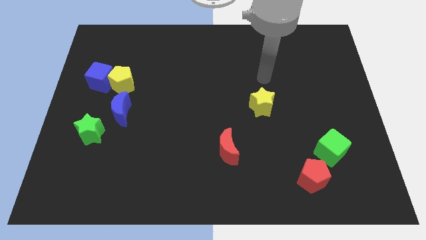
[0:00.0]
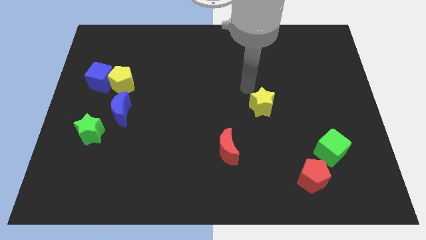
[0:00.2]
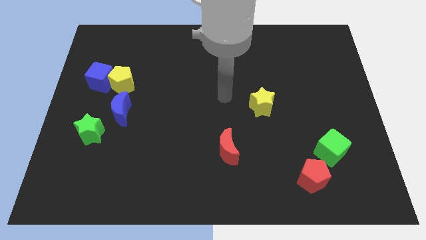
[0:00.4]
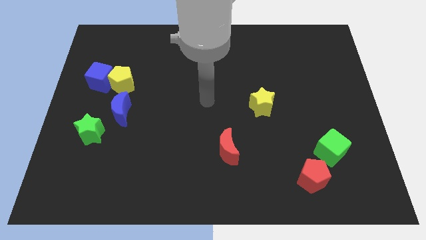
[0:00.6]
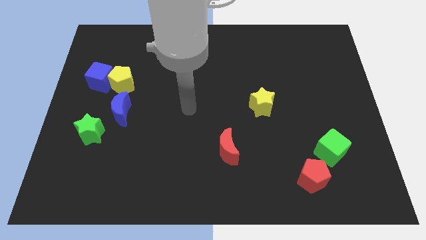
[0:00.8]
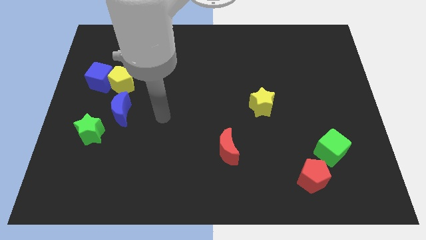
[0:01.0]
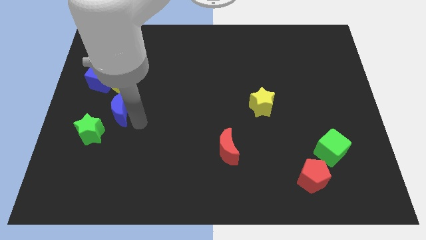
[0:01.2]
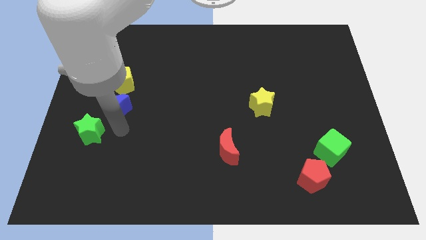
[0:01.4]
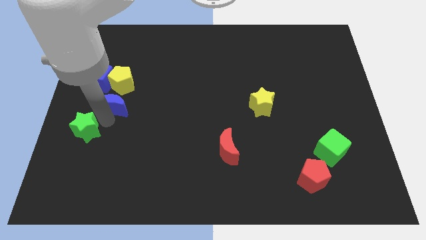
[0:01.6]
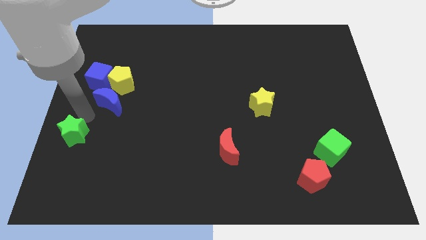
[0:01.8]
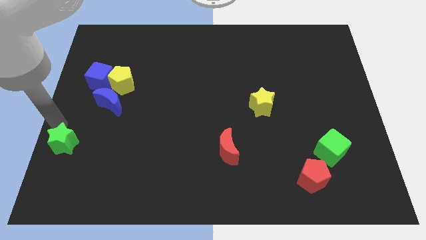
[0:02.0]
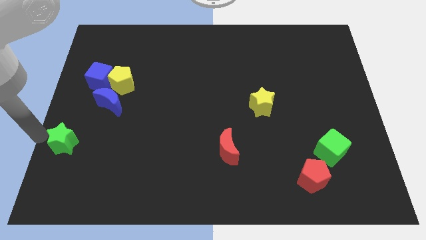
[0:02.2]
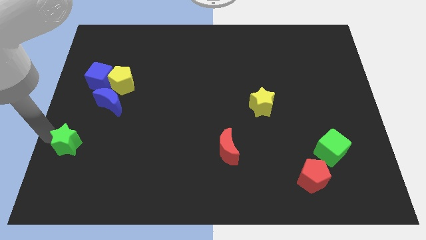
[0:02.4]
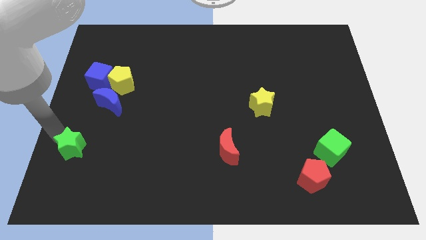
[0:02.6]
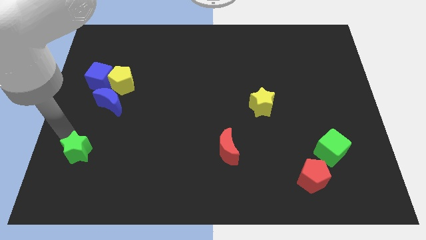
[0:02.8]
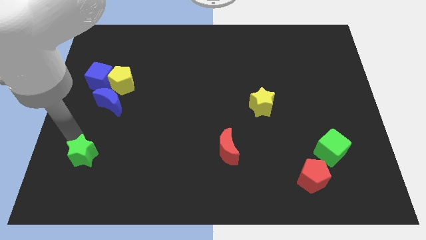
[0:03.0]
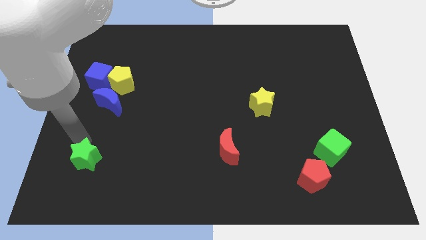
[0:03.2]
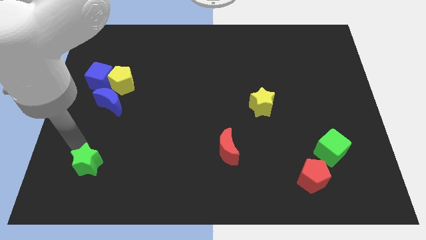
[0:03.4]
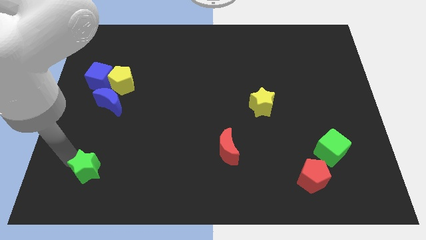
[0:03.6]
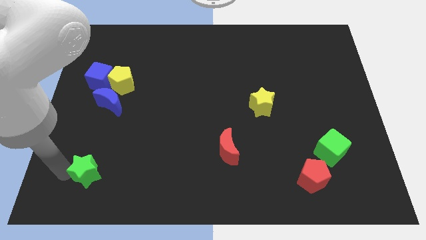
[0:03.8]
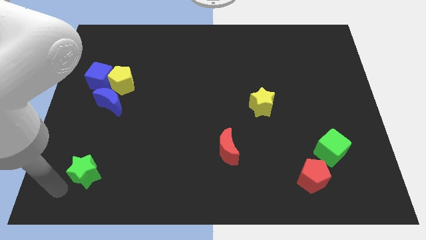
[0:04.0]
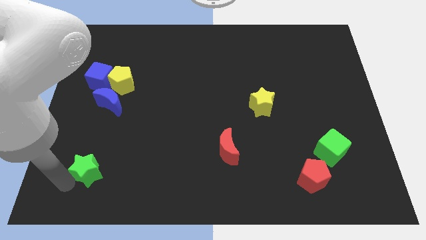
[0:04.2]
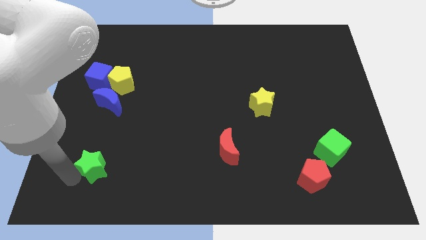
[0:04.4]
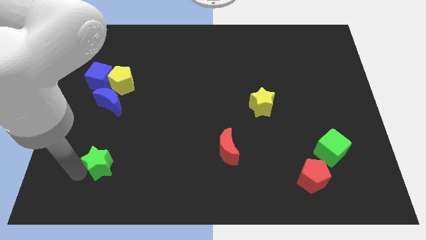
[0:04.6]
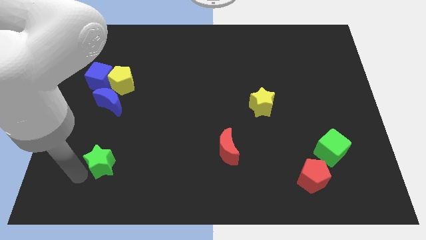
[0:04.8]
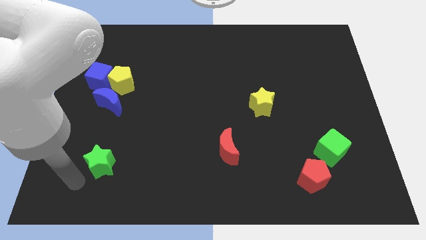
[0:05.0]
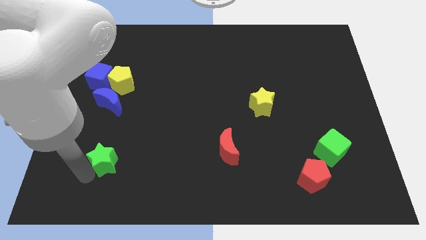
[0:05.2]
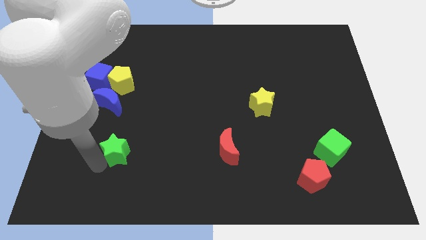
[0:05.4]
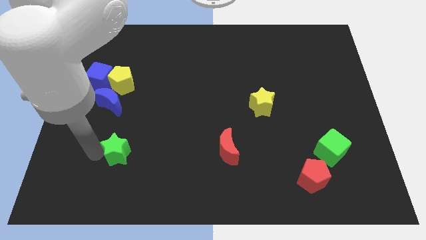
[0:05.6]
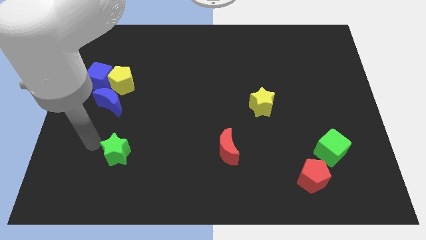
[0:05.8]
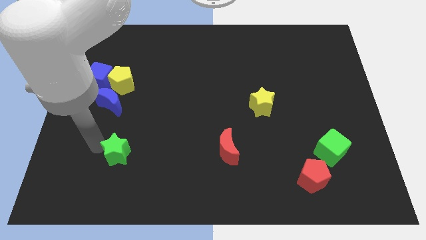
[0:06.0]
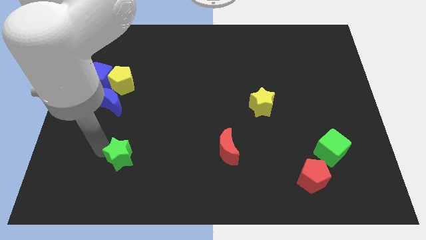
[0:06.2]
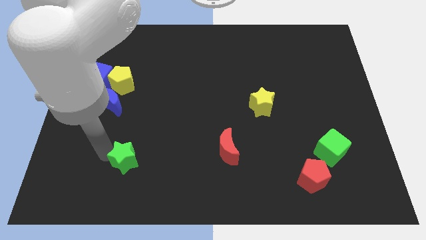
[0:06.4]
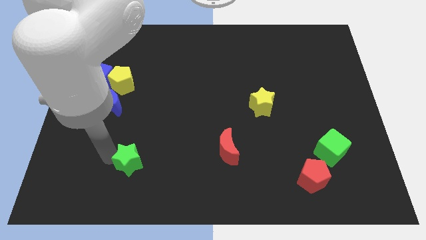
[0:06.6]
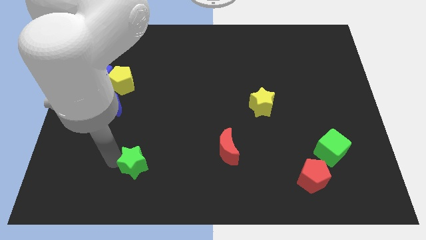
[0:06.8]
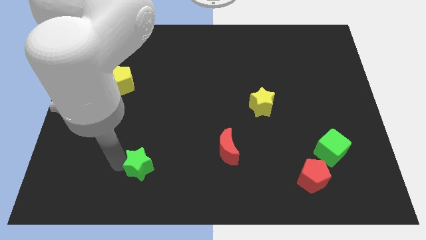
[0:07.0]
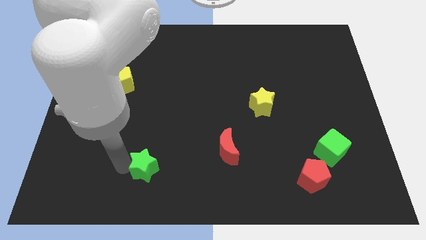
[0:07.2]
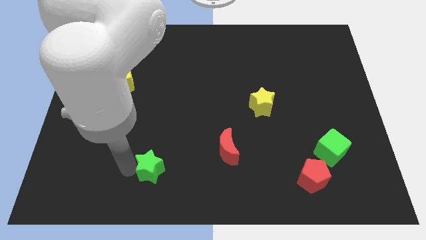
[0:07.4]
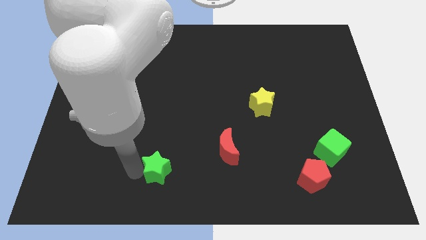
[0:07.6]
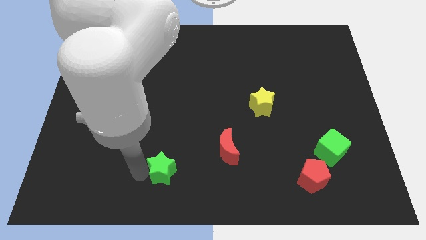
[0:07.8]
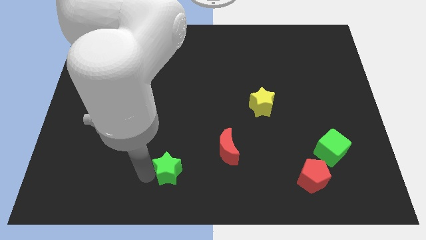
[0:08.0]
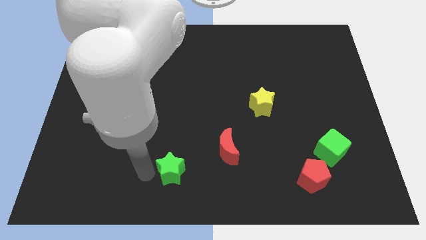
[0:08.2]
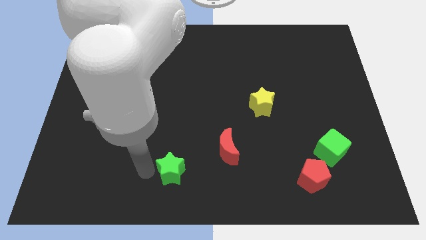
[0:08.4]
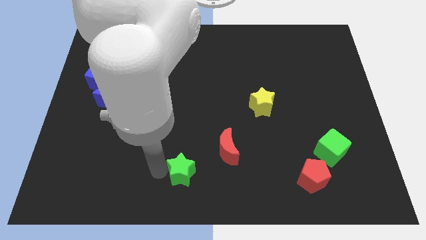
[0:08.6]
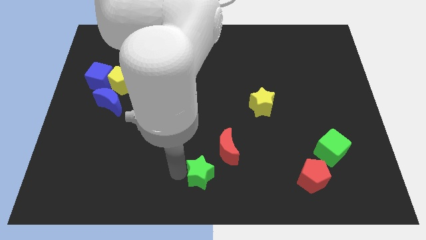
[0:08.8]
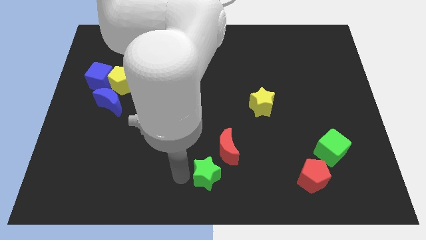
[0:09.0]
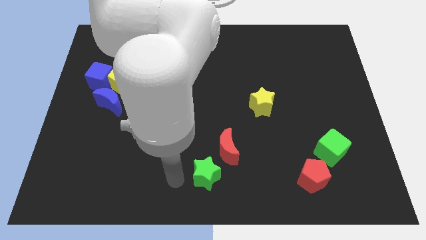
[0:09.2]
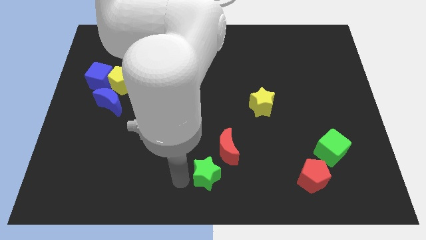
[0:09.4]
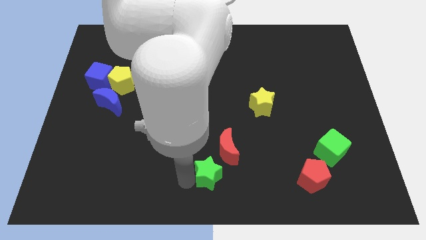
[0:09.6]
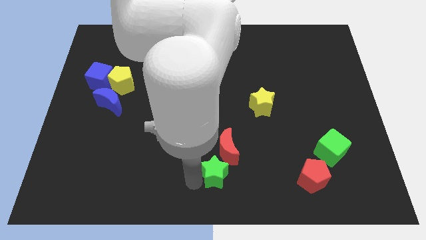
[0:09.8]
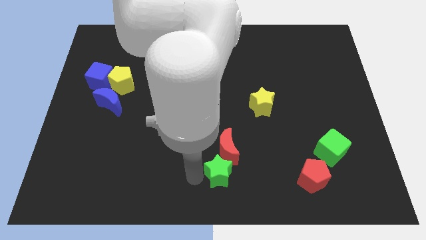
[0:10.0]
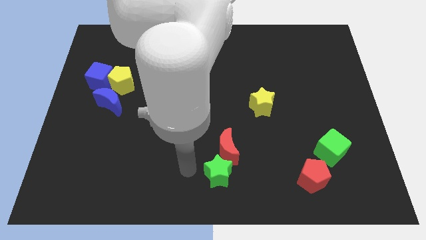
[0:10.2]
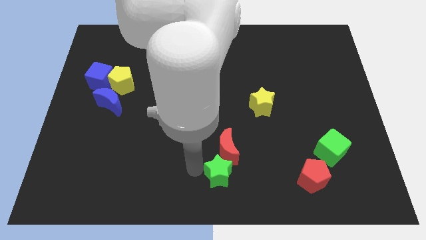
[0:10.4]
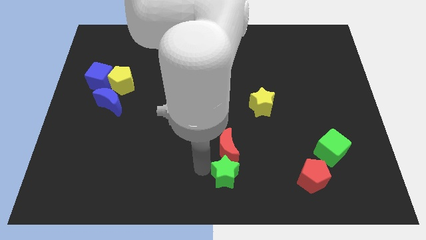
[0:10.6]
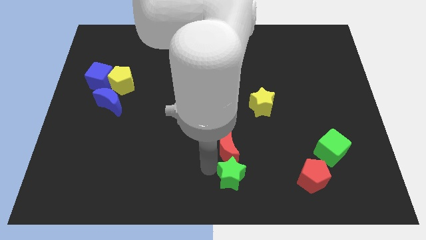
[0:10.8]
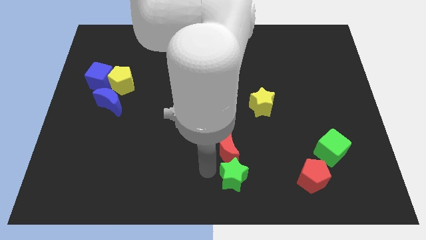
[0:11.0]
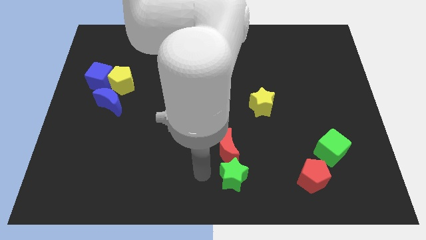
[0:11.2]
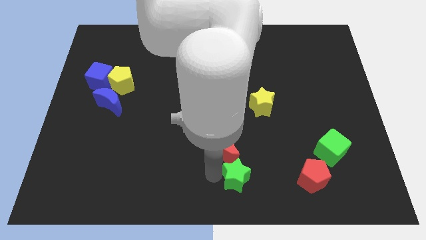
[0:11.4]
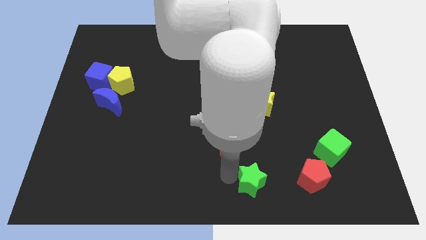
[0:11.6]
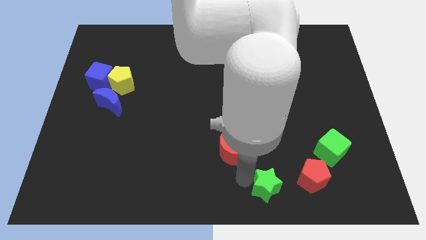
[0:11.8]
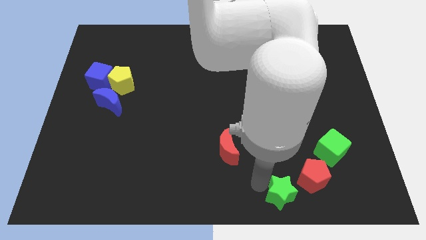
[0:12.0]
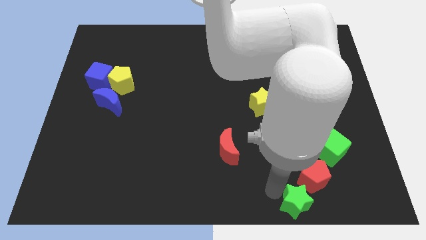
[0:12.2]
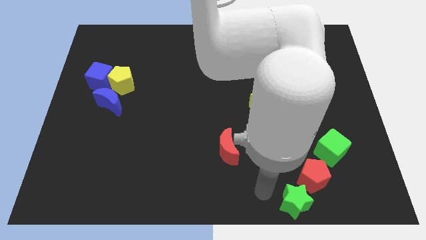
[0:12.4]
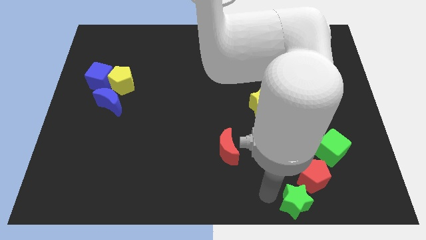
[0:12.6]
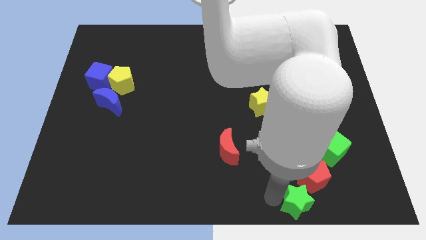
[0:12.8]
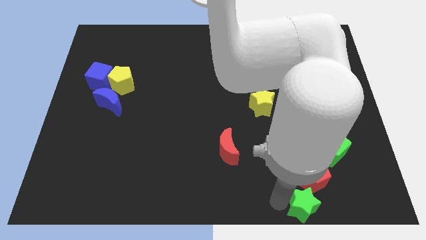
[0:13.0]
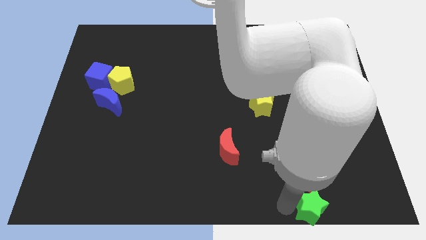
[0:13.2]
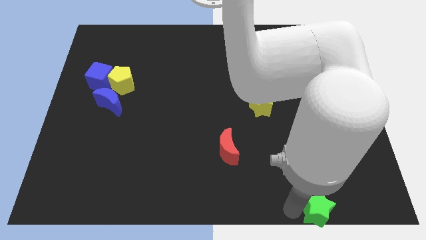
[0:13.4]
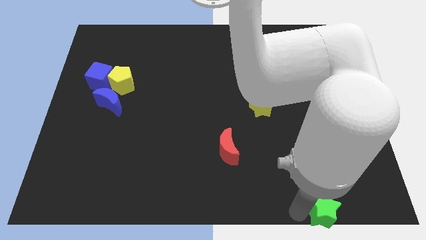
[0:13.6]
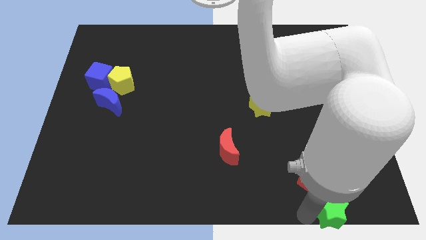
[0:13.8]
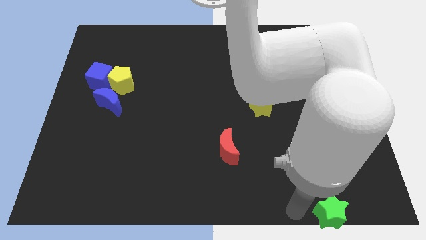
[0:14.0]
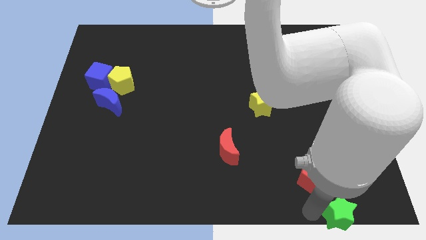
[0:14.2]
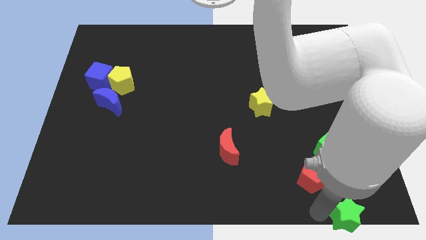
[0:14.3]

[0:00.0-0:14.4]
slide the green star to the bottom right corner
